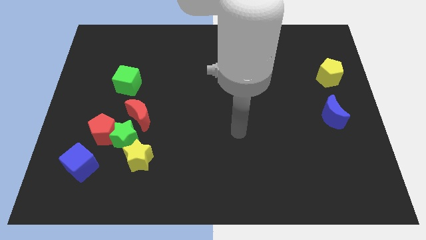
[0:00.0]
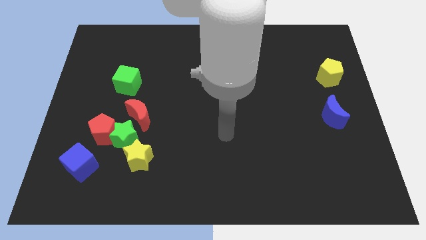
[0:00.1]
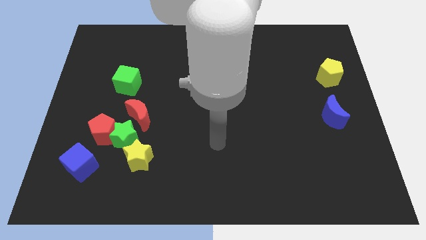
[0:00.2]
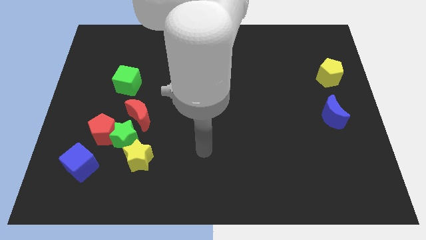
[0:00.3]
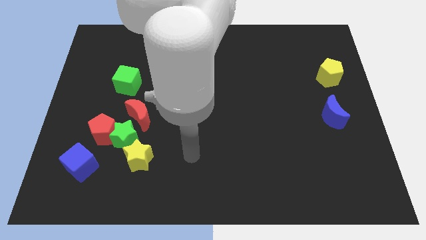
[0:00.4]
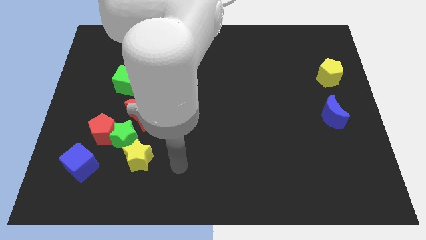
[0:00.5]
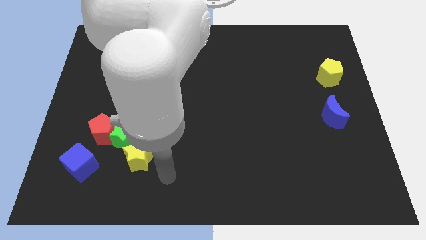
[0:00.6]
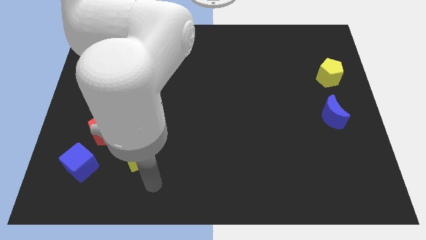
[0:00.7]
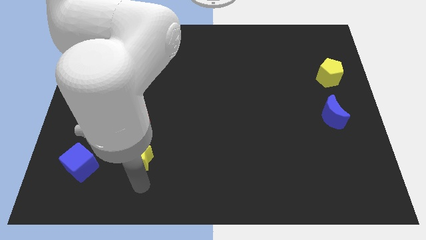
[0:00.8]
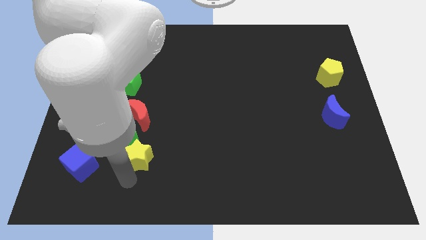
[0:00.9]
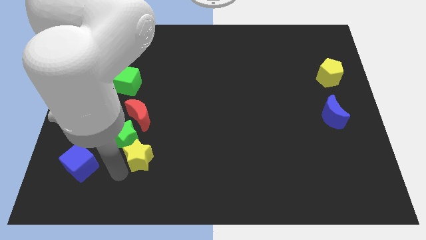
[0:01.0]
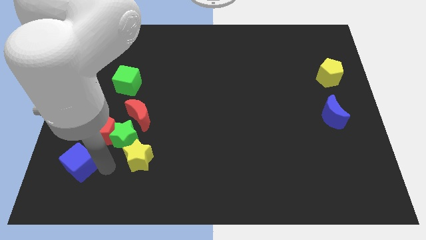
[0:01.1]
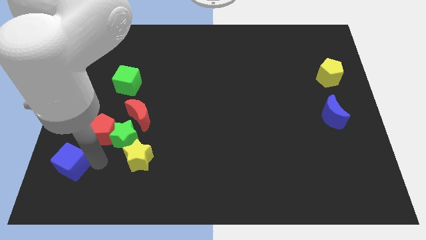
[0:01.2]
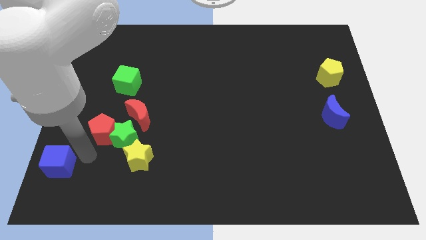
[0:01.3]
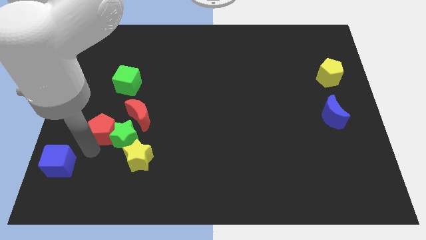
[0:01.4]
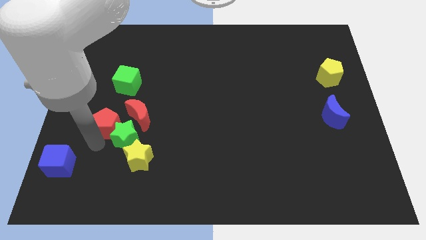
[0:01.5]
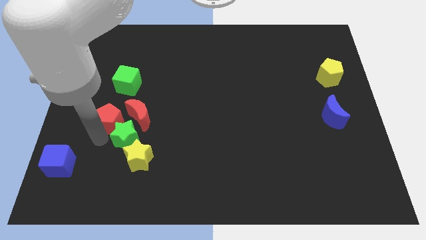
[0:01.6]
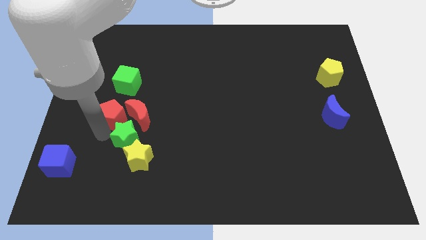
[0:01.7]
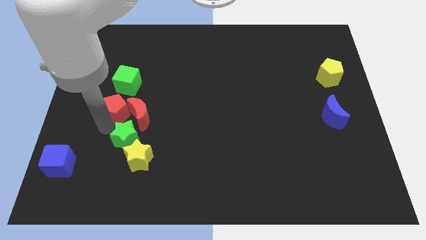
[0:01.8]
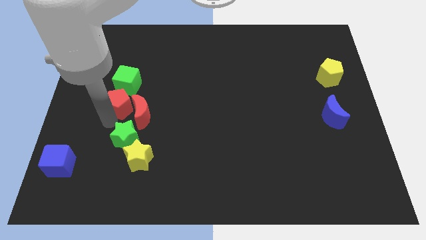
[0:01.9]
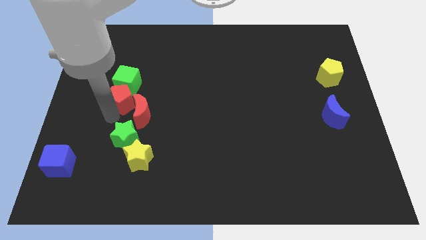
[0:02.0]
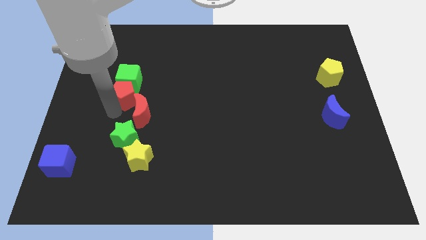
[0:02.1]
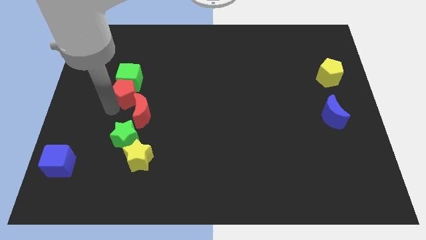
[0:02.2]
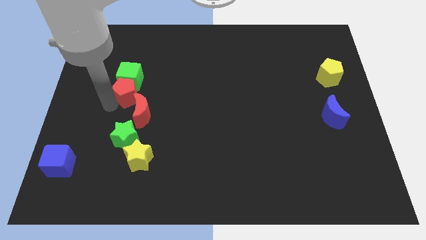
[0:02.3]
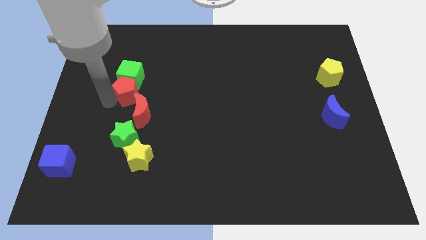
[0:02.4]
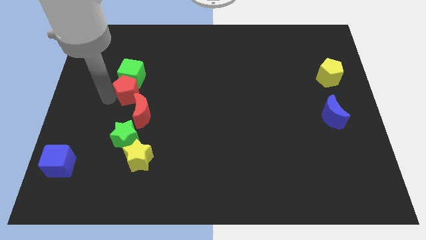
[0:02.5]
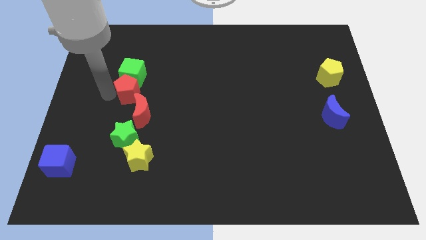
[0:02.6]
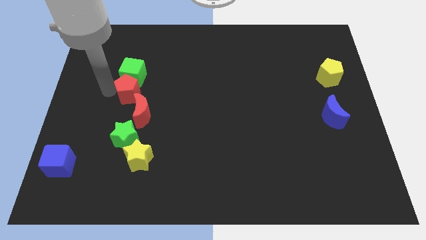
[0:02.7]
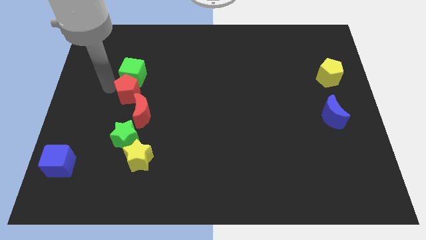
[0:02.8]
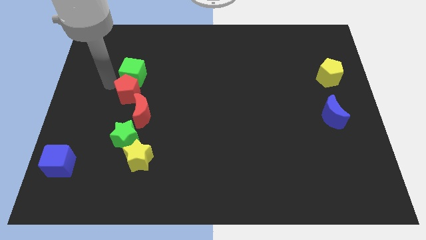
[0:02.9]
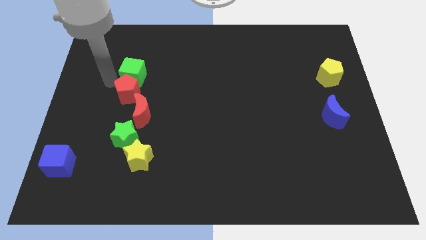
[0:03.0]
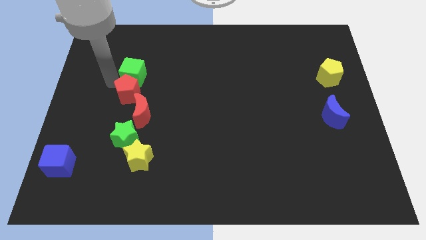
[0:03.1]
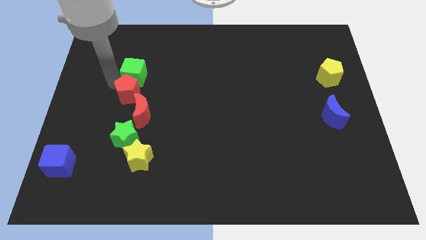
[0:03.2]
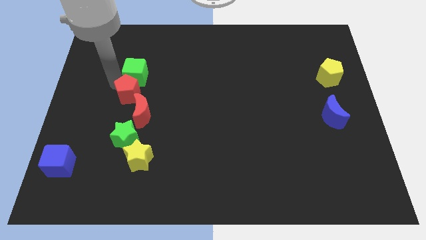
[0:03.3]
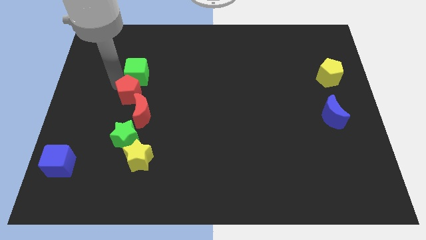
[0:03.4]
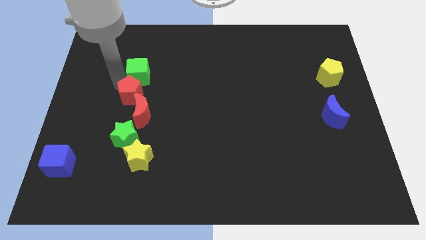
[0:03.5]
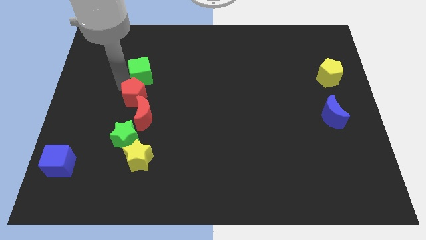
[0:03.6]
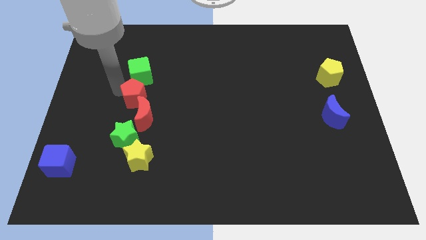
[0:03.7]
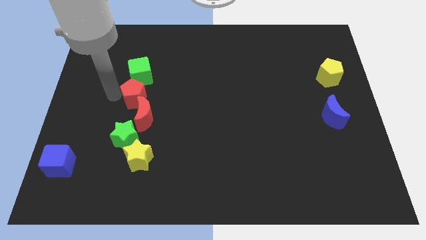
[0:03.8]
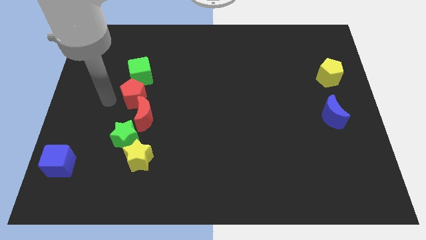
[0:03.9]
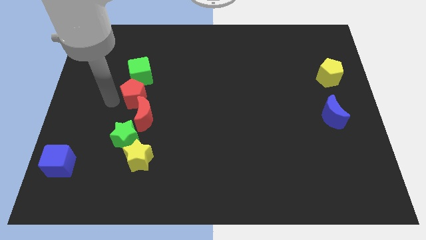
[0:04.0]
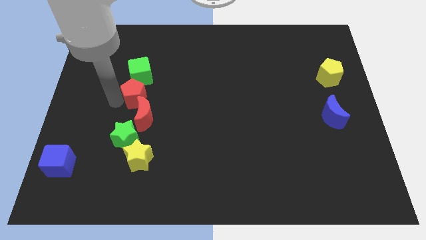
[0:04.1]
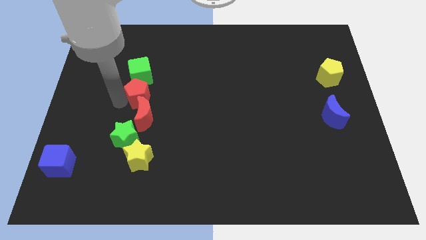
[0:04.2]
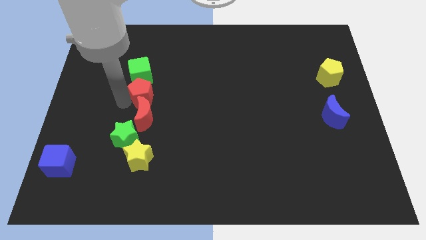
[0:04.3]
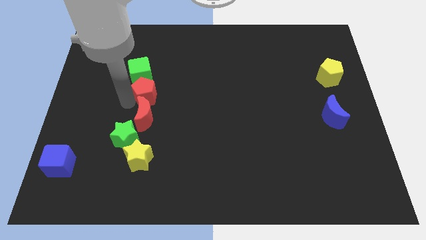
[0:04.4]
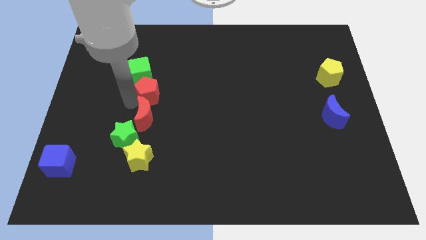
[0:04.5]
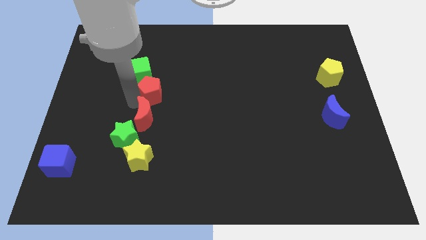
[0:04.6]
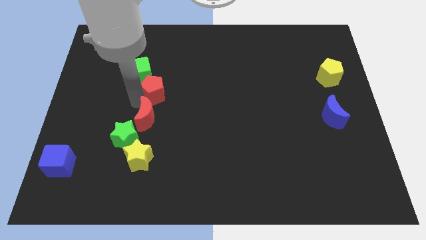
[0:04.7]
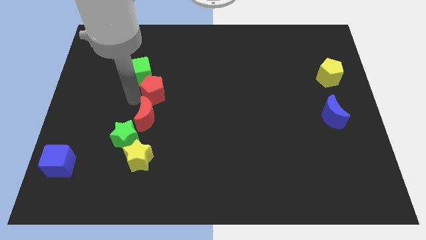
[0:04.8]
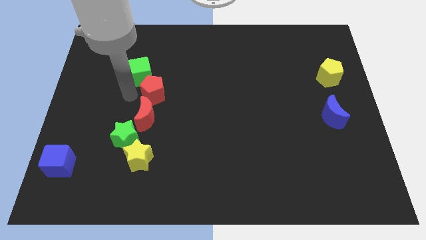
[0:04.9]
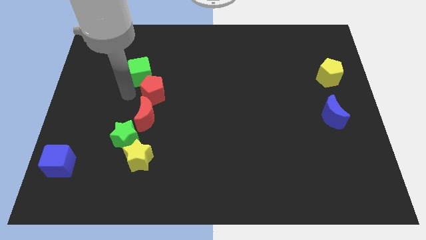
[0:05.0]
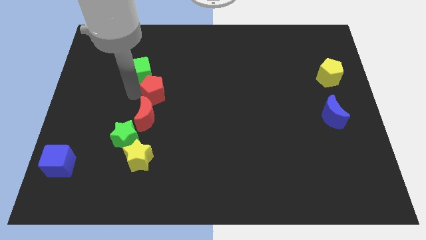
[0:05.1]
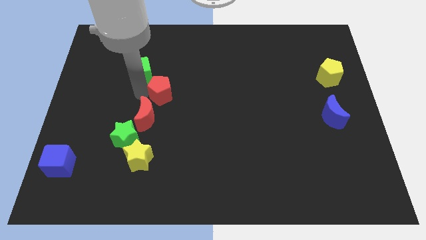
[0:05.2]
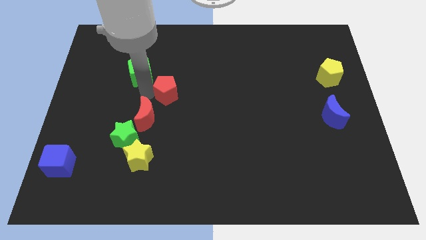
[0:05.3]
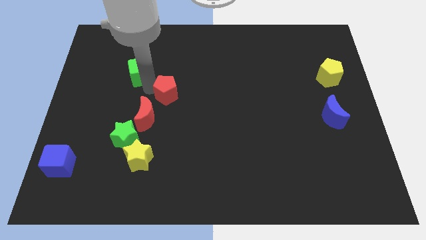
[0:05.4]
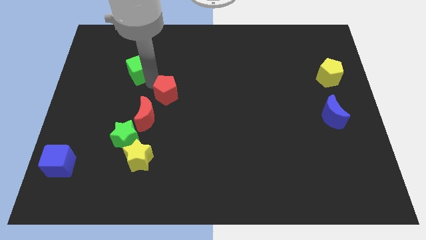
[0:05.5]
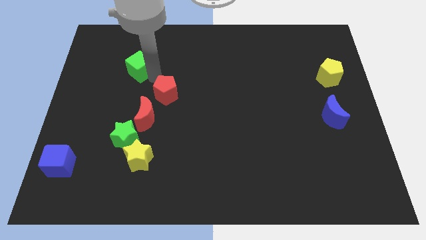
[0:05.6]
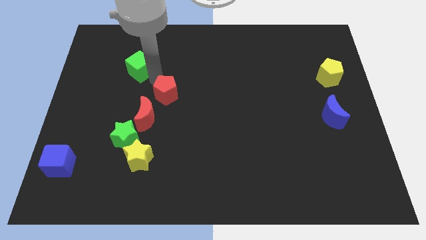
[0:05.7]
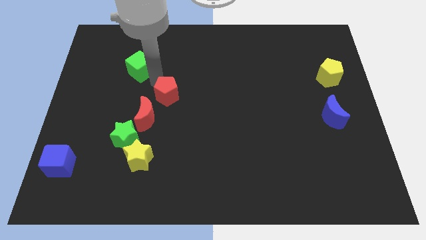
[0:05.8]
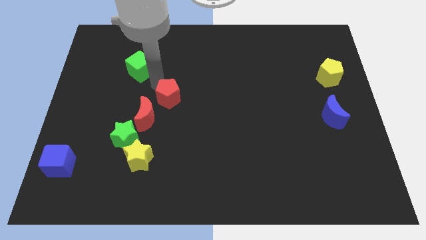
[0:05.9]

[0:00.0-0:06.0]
move the red pentagon to the right somewhat

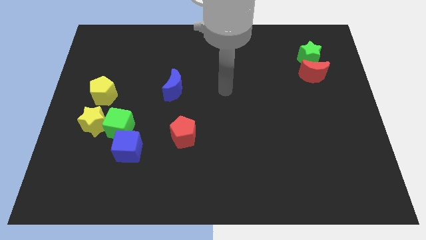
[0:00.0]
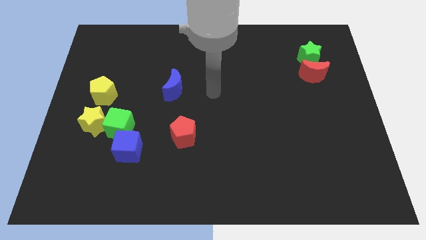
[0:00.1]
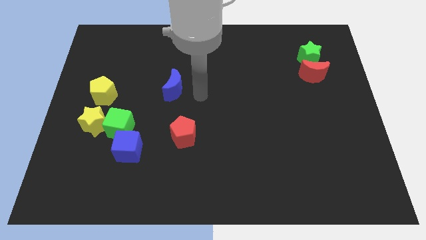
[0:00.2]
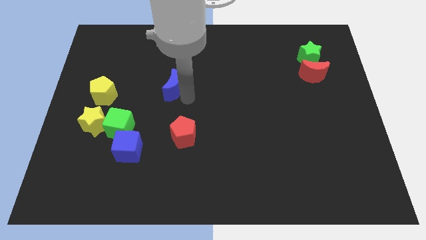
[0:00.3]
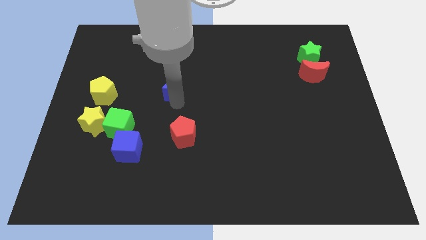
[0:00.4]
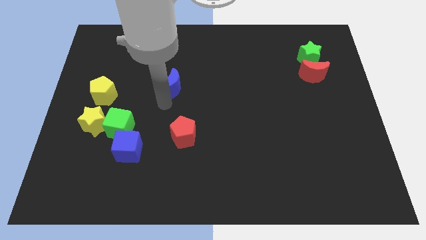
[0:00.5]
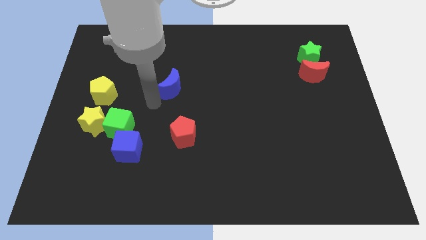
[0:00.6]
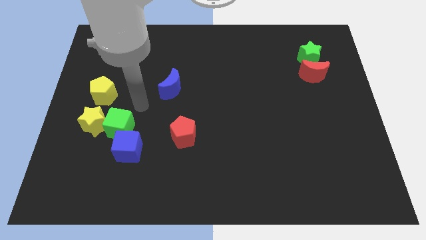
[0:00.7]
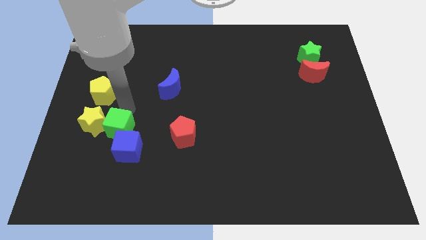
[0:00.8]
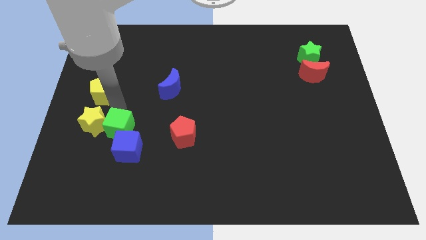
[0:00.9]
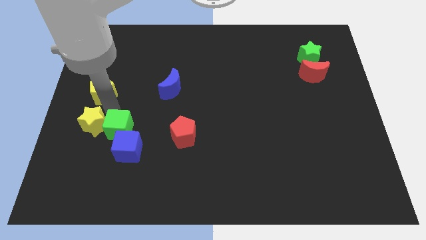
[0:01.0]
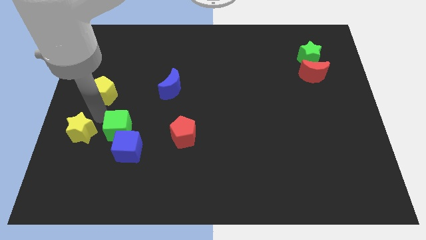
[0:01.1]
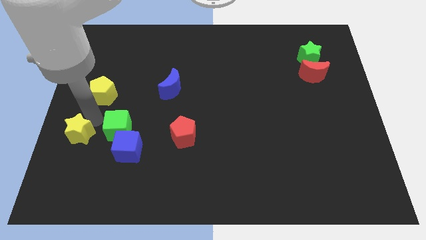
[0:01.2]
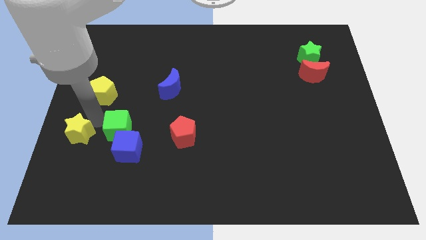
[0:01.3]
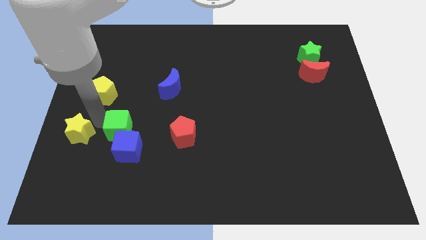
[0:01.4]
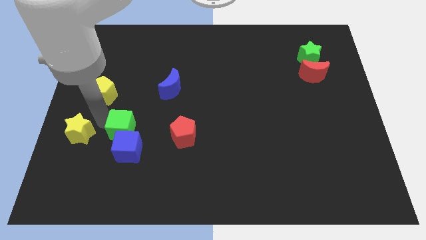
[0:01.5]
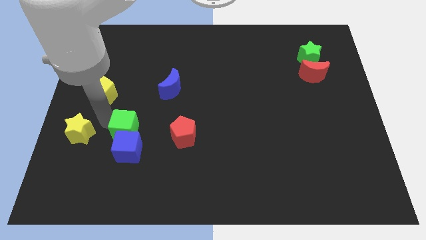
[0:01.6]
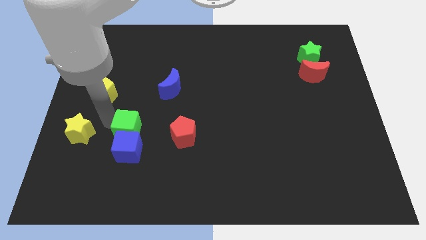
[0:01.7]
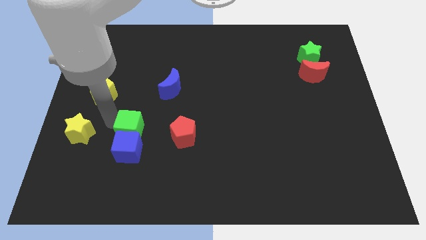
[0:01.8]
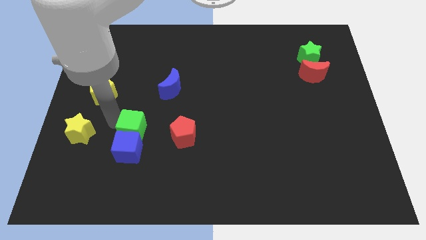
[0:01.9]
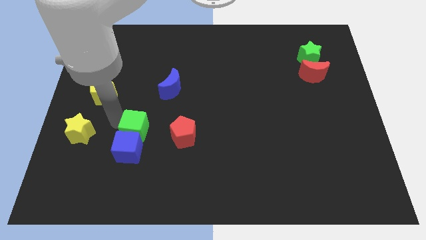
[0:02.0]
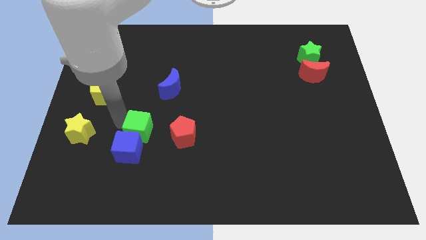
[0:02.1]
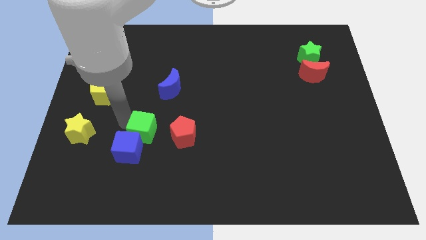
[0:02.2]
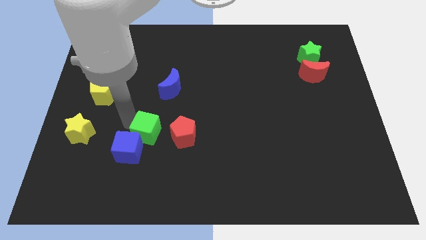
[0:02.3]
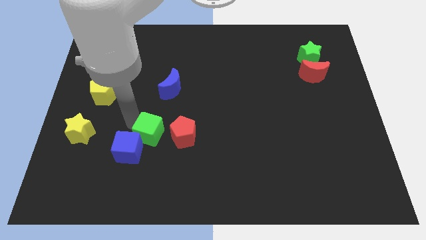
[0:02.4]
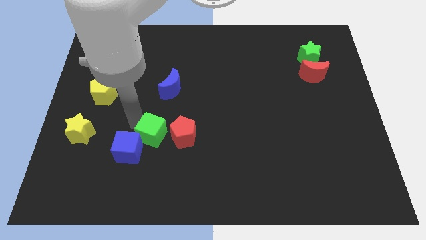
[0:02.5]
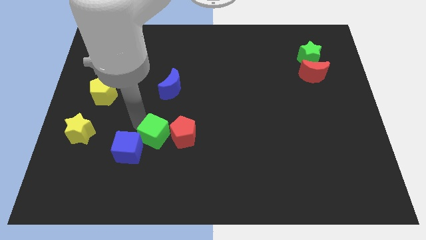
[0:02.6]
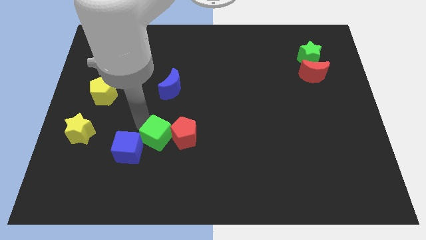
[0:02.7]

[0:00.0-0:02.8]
slide the green cube downwards and to the right diagonally slightly
